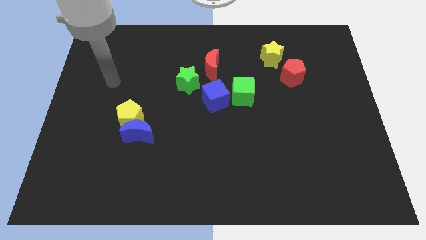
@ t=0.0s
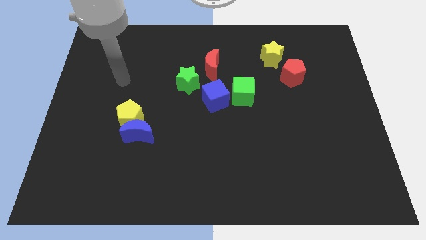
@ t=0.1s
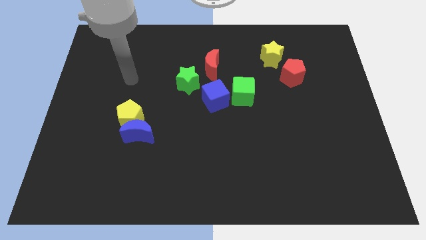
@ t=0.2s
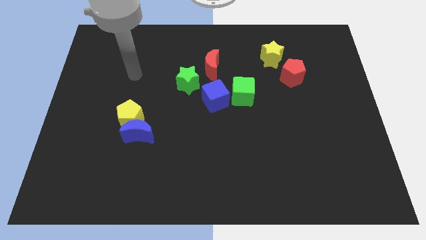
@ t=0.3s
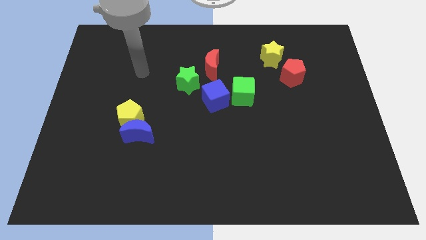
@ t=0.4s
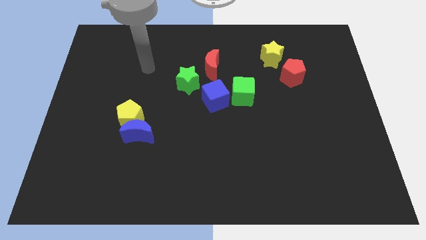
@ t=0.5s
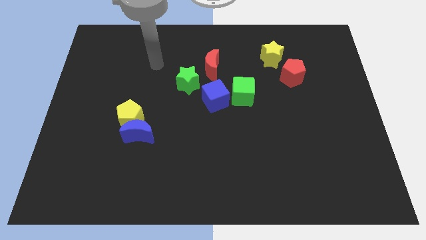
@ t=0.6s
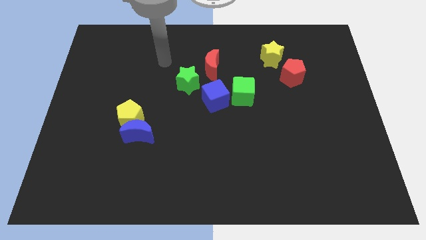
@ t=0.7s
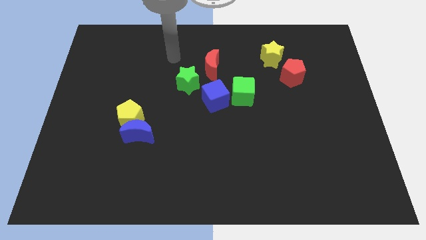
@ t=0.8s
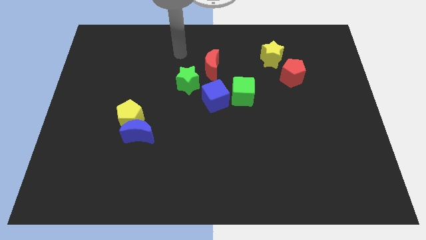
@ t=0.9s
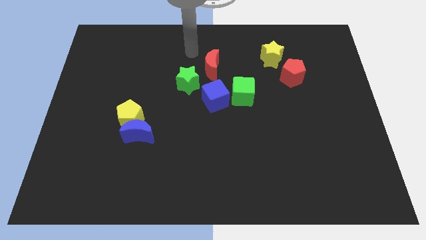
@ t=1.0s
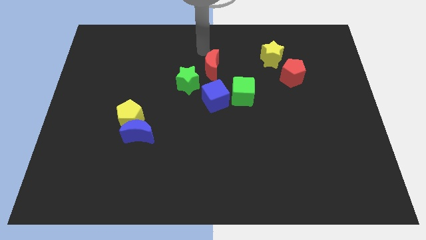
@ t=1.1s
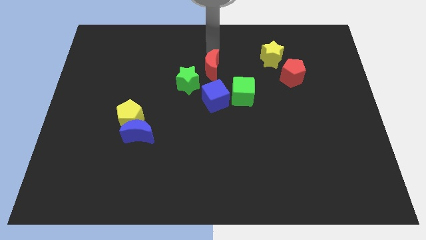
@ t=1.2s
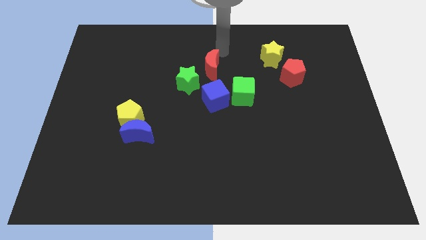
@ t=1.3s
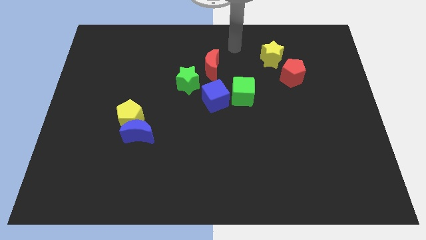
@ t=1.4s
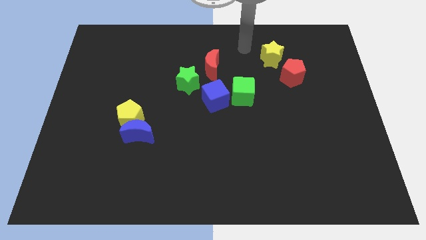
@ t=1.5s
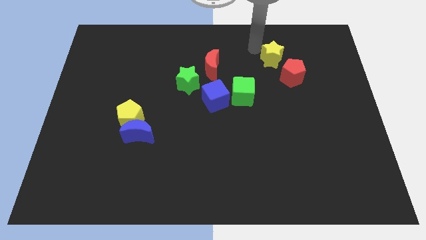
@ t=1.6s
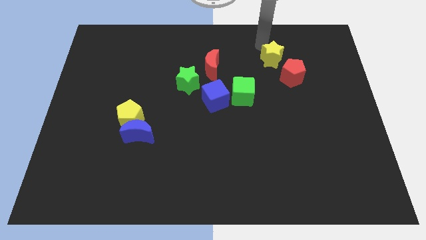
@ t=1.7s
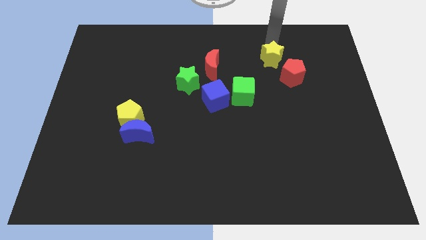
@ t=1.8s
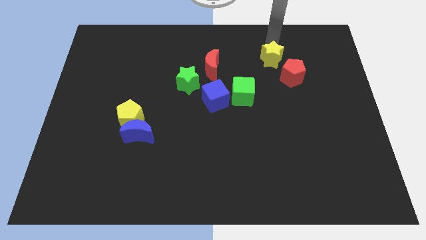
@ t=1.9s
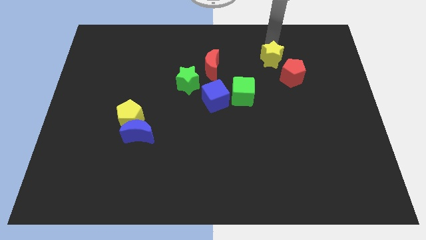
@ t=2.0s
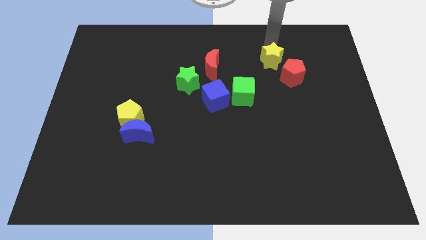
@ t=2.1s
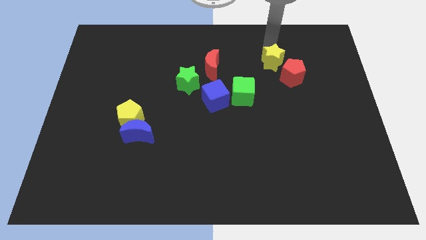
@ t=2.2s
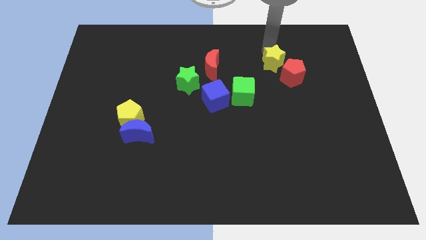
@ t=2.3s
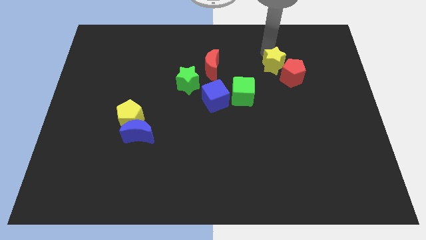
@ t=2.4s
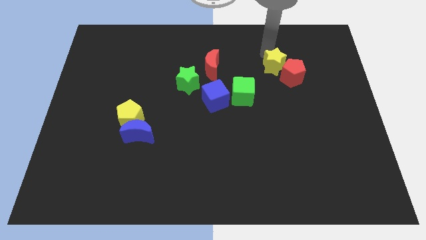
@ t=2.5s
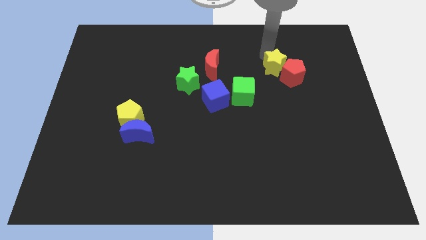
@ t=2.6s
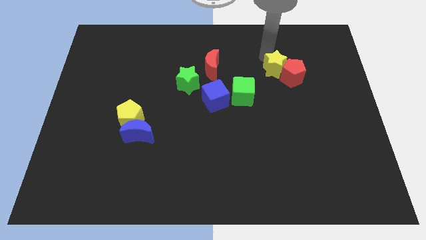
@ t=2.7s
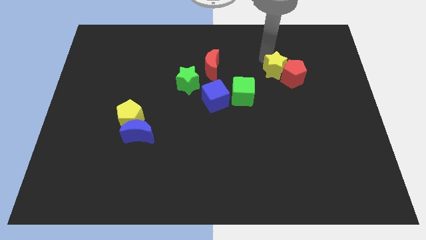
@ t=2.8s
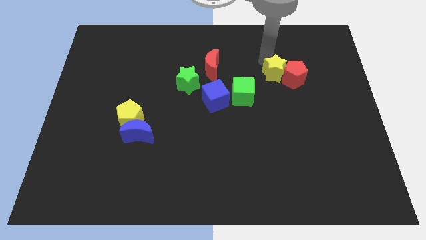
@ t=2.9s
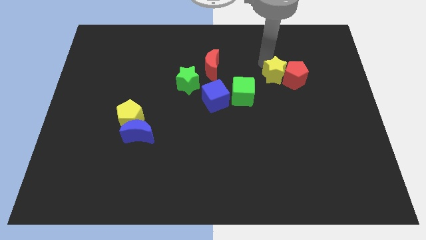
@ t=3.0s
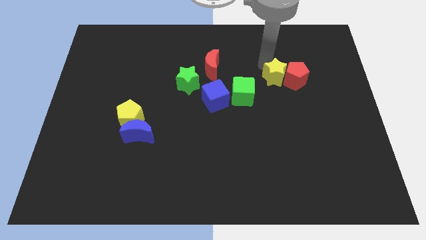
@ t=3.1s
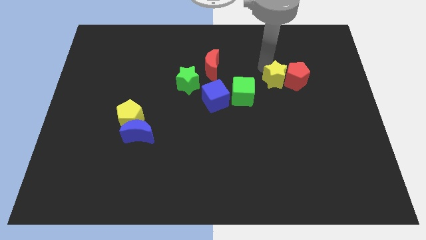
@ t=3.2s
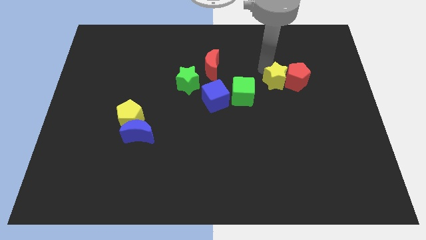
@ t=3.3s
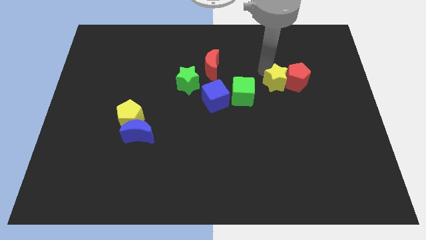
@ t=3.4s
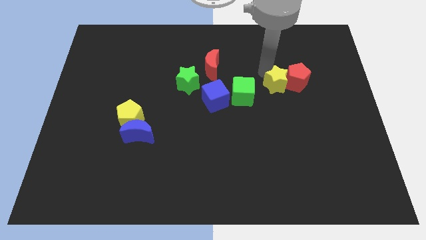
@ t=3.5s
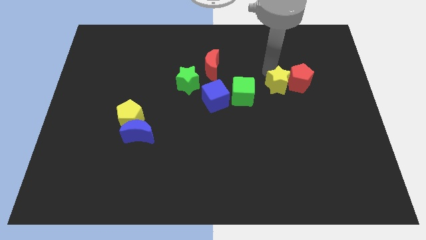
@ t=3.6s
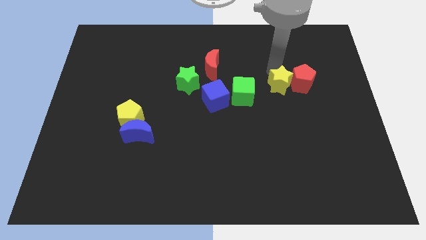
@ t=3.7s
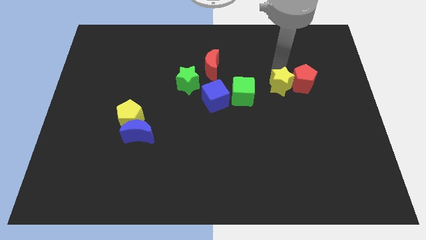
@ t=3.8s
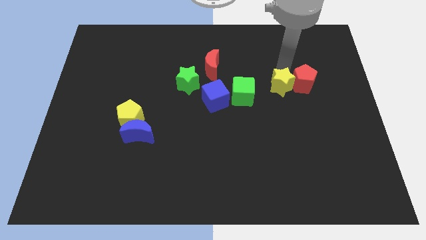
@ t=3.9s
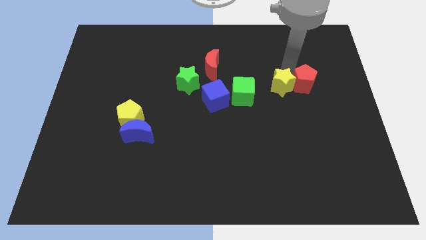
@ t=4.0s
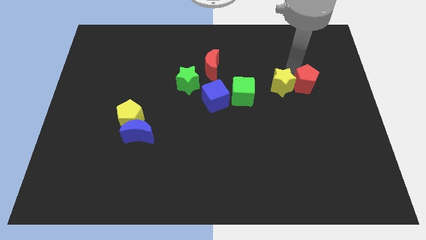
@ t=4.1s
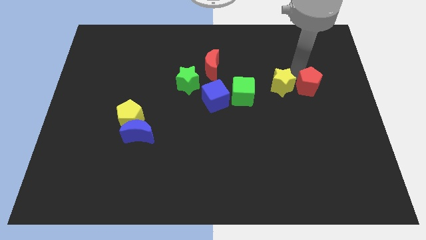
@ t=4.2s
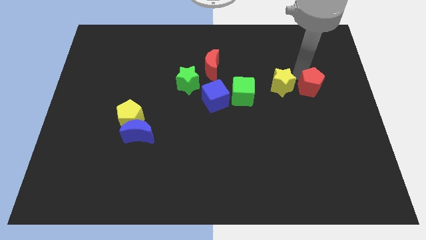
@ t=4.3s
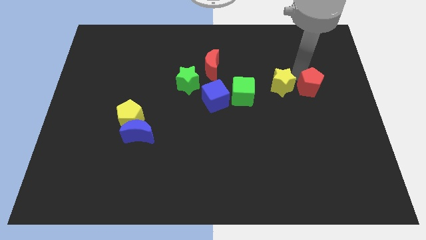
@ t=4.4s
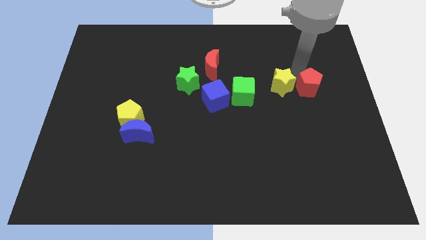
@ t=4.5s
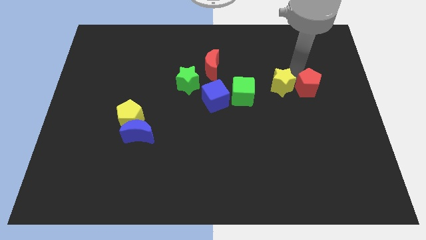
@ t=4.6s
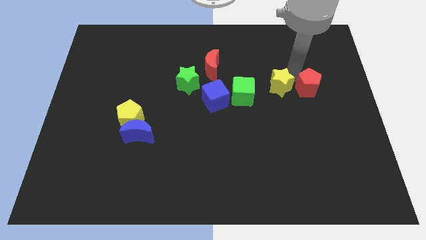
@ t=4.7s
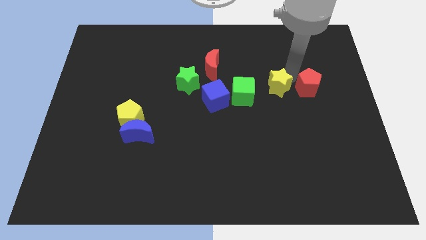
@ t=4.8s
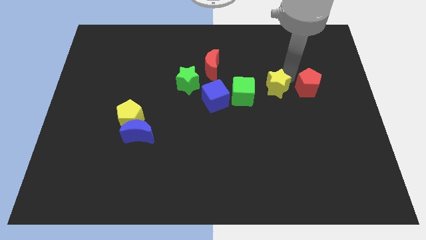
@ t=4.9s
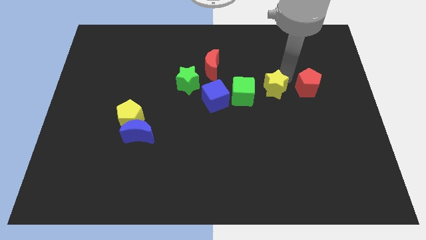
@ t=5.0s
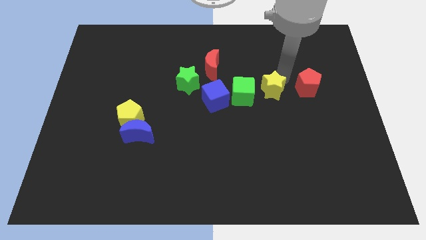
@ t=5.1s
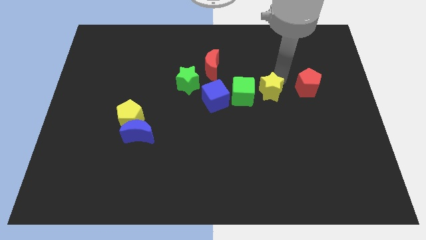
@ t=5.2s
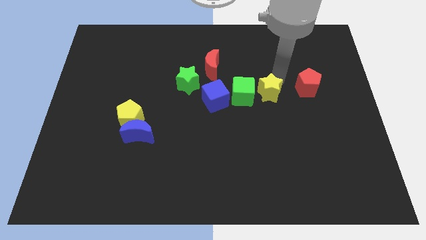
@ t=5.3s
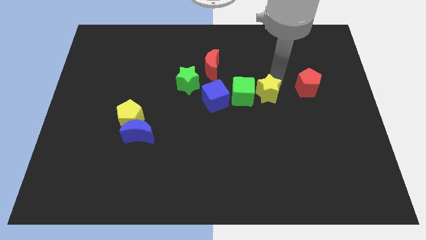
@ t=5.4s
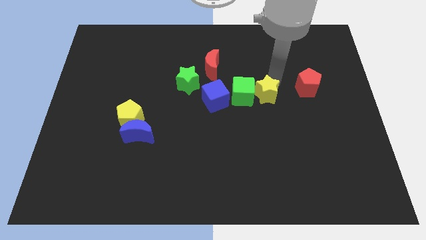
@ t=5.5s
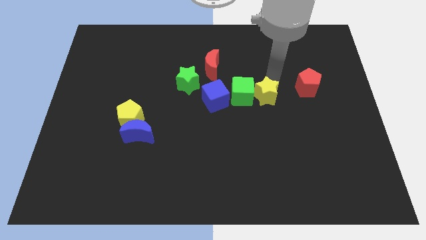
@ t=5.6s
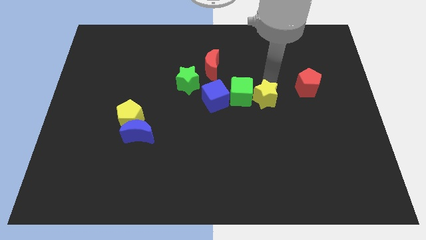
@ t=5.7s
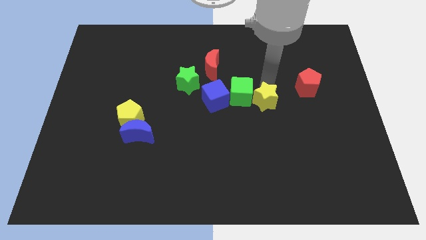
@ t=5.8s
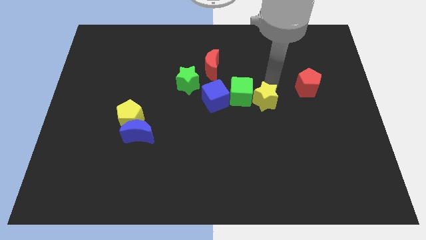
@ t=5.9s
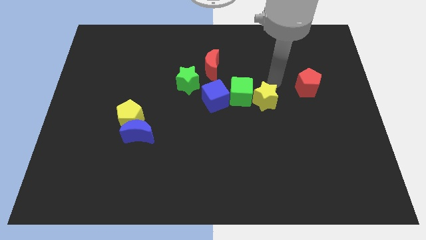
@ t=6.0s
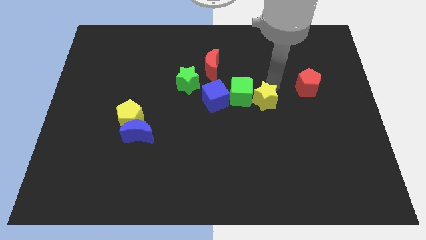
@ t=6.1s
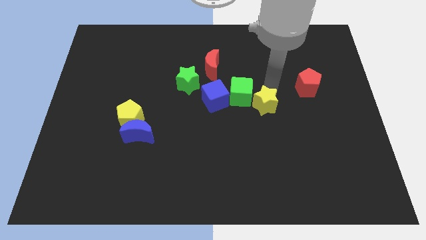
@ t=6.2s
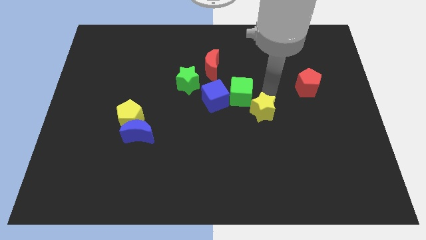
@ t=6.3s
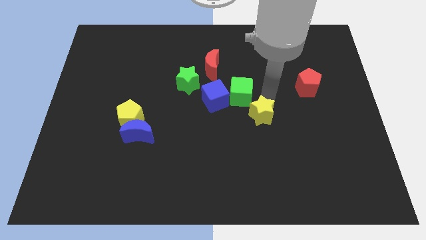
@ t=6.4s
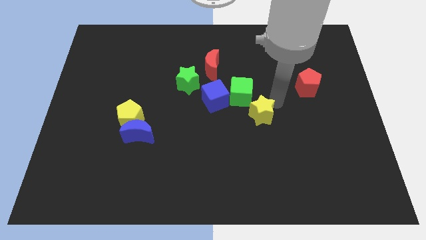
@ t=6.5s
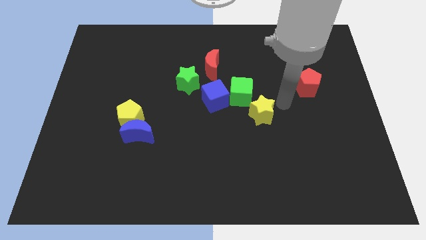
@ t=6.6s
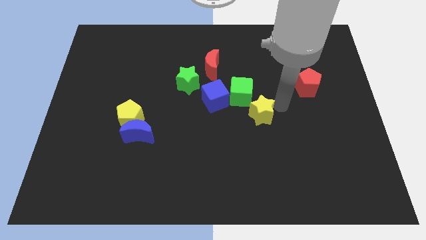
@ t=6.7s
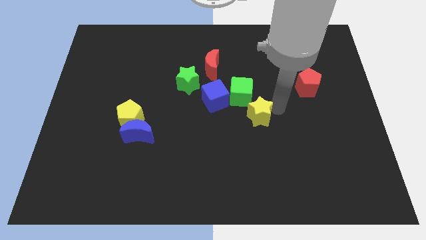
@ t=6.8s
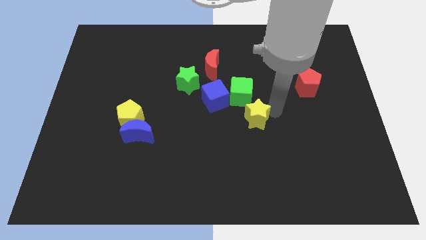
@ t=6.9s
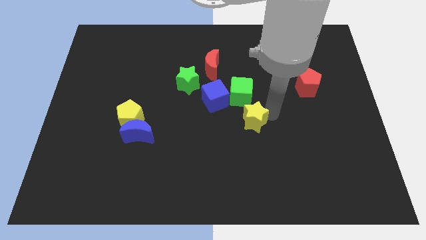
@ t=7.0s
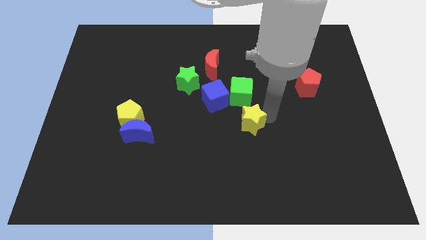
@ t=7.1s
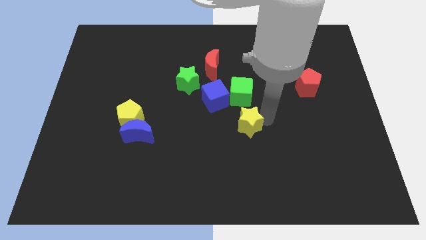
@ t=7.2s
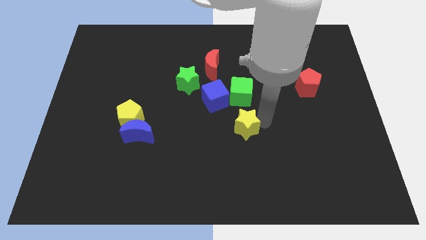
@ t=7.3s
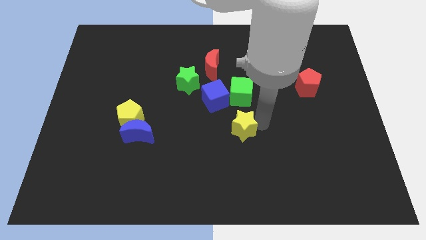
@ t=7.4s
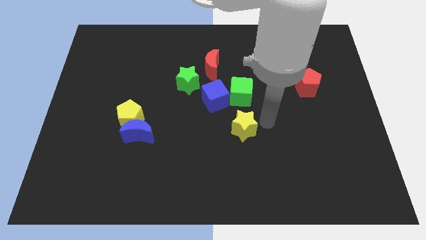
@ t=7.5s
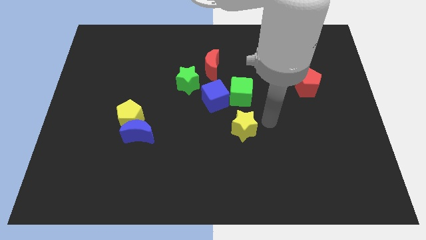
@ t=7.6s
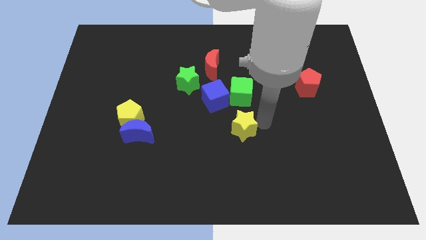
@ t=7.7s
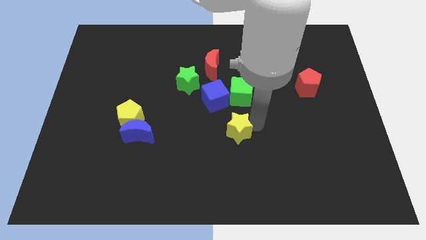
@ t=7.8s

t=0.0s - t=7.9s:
slide the yellow star to the bottom side of the blue cube
